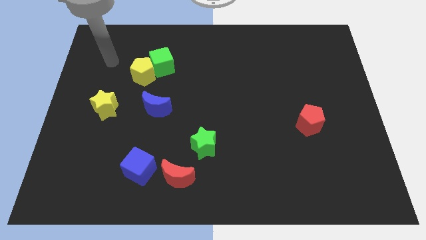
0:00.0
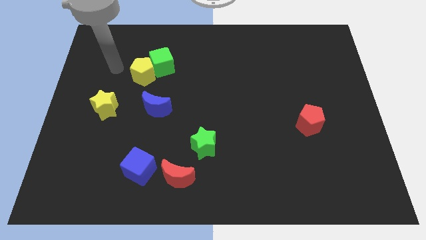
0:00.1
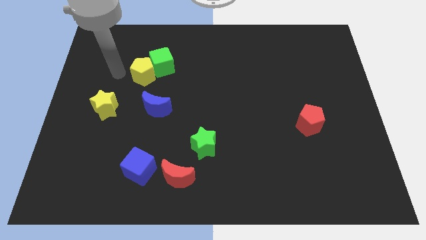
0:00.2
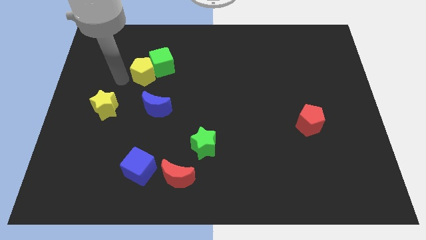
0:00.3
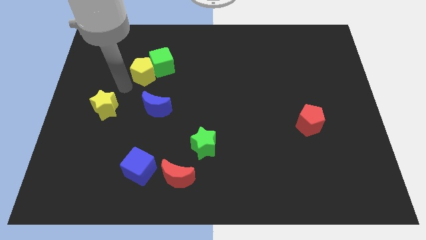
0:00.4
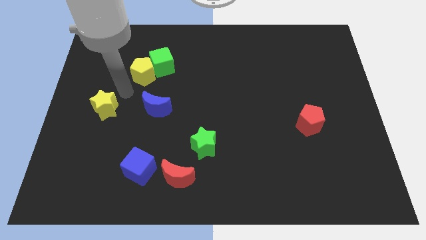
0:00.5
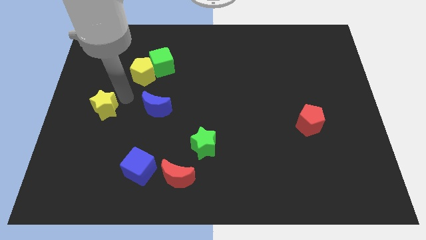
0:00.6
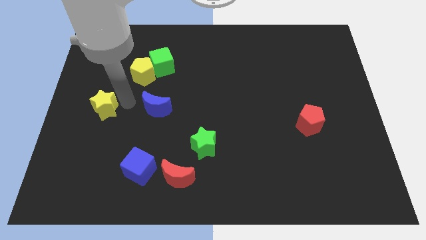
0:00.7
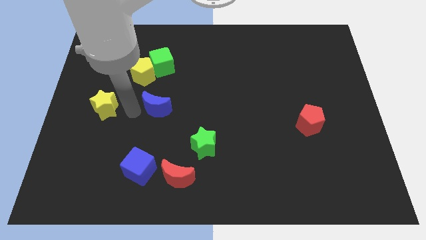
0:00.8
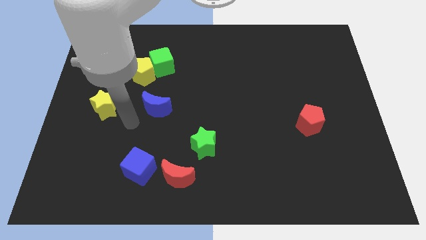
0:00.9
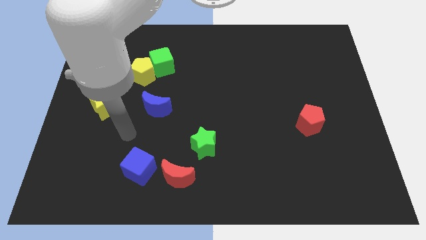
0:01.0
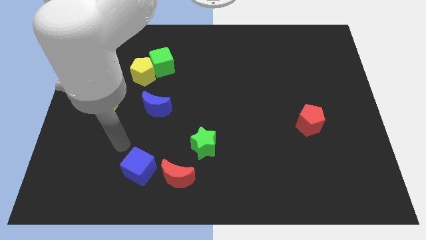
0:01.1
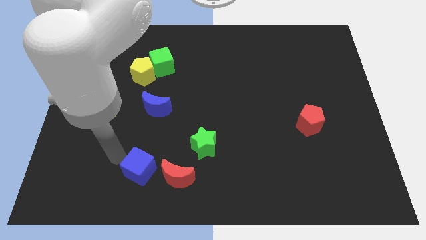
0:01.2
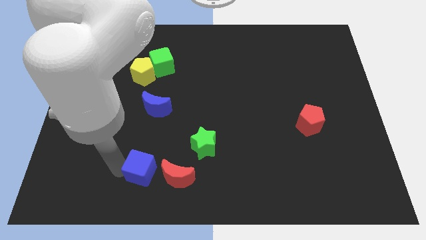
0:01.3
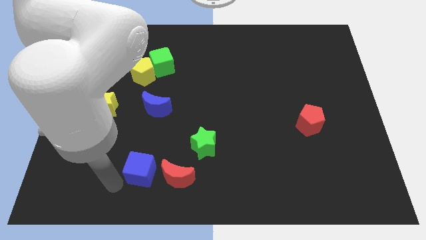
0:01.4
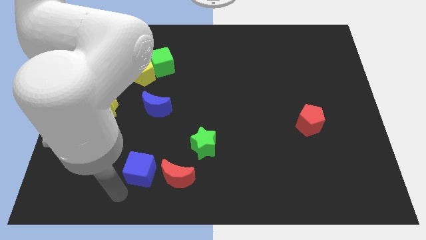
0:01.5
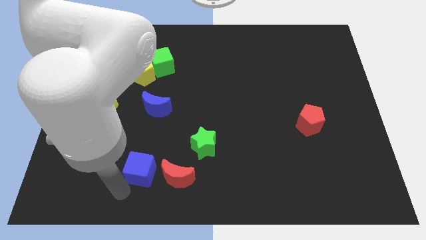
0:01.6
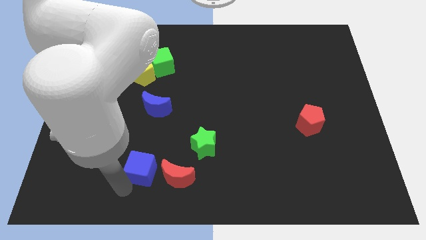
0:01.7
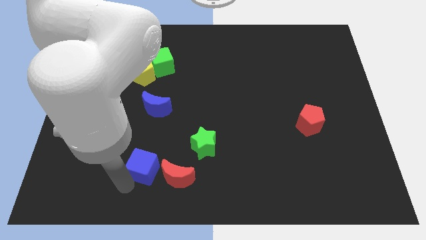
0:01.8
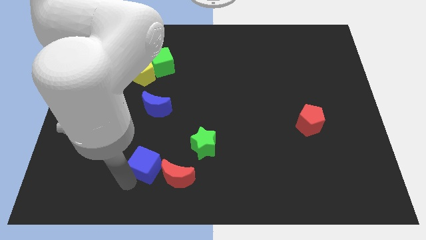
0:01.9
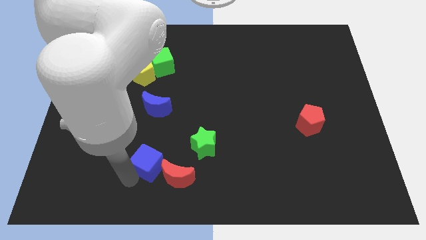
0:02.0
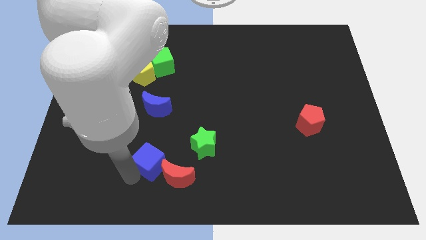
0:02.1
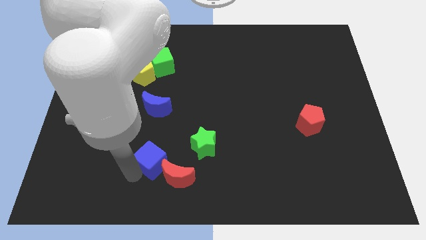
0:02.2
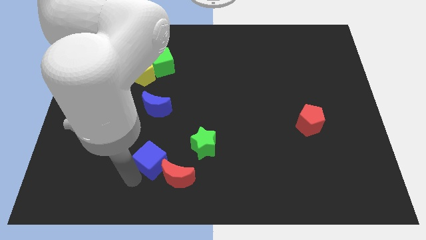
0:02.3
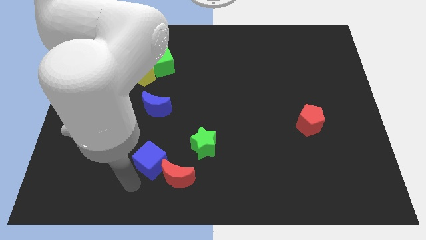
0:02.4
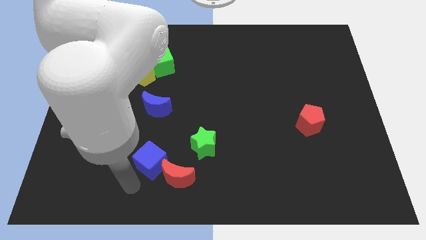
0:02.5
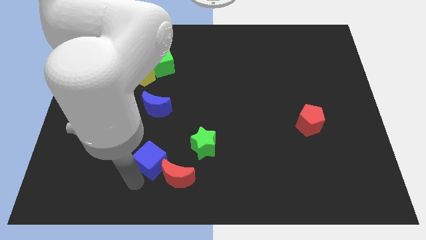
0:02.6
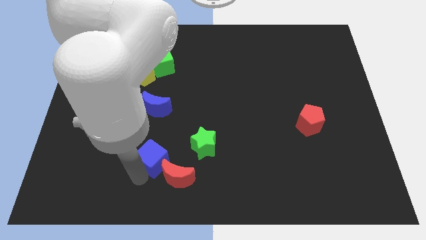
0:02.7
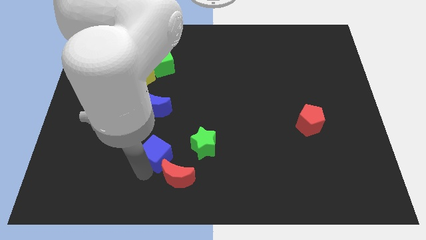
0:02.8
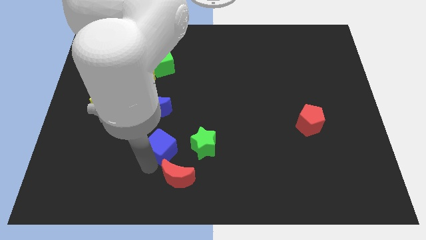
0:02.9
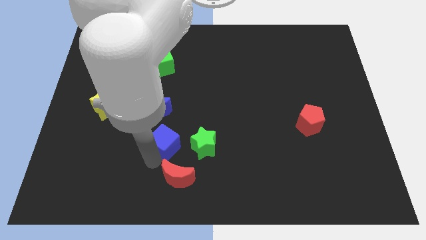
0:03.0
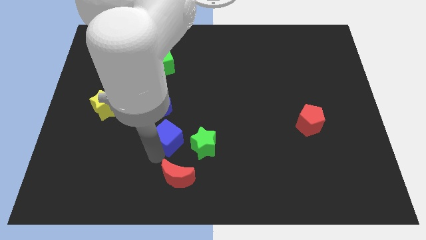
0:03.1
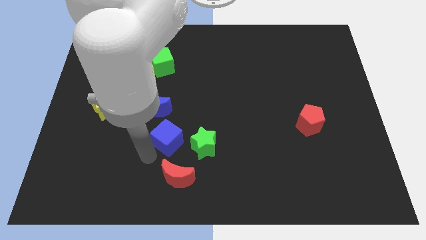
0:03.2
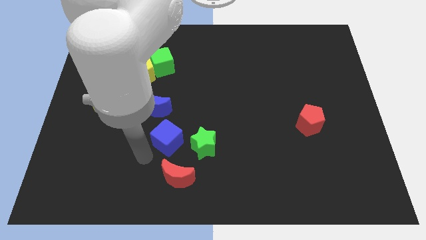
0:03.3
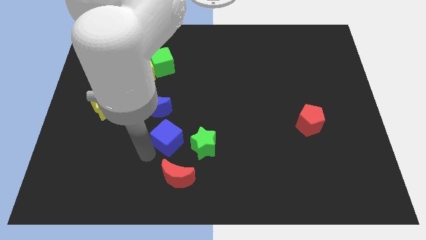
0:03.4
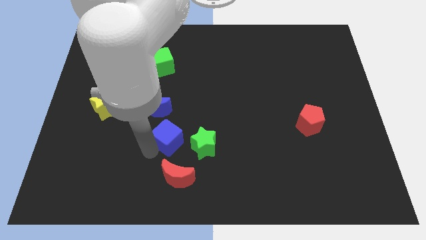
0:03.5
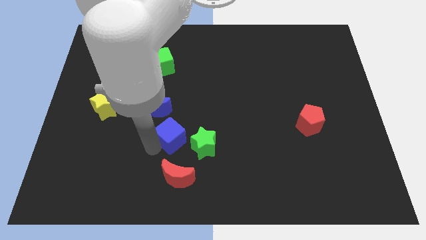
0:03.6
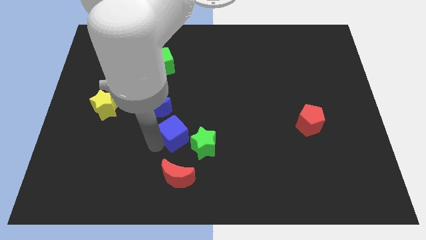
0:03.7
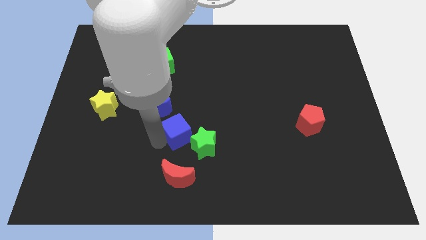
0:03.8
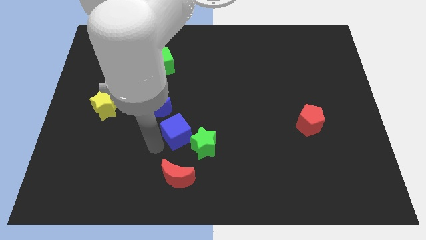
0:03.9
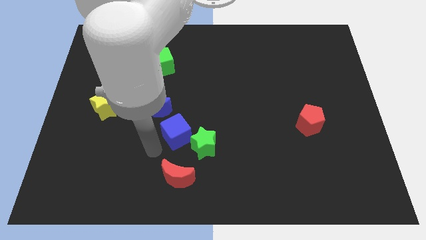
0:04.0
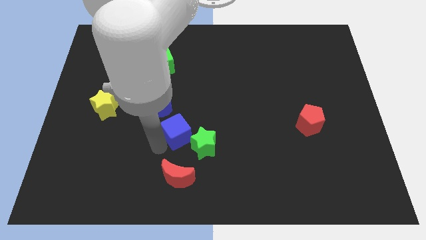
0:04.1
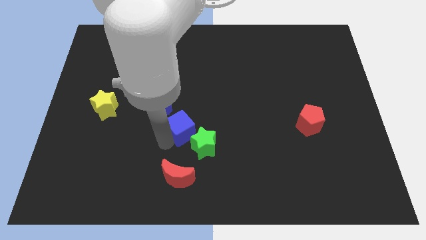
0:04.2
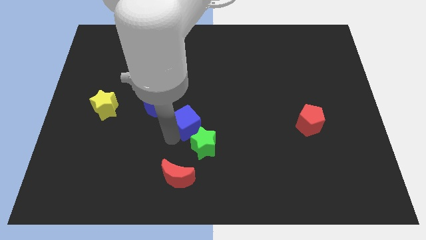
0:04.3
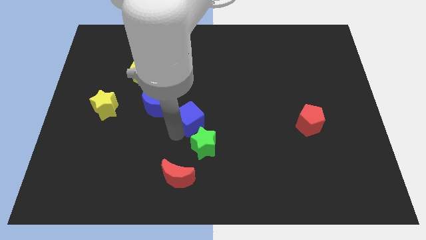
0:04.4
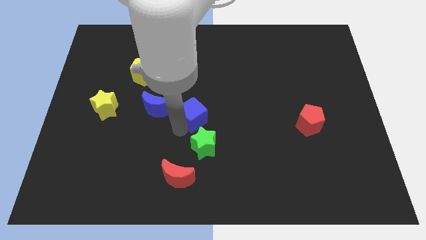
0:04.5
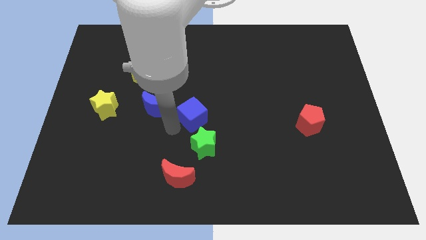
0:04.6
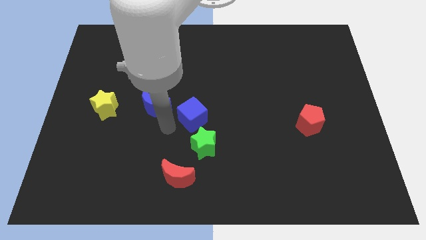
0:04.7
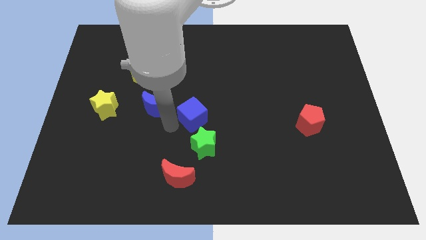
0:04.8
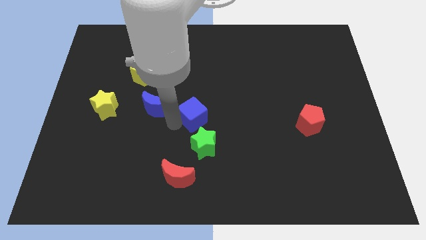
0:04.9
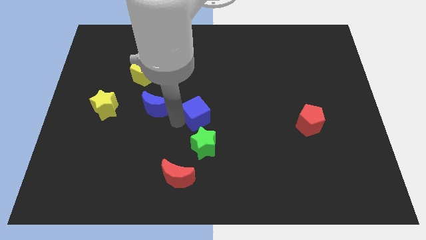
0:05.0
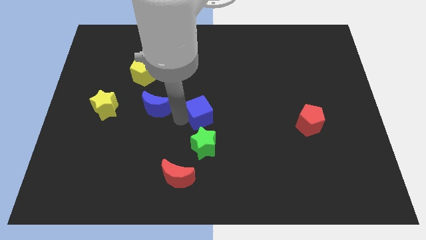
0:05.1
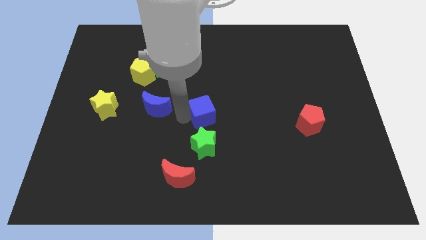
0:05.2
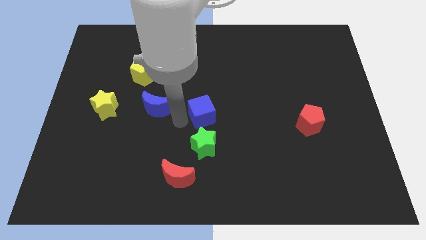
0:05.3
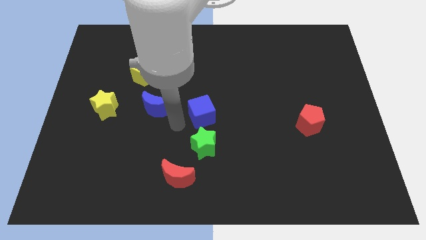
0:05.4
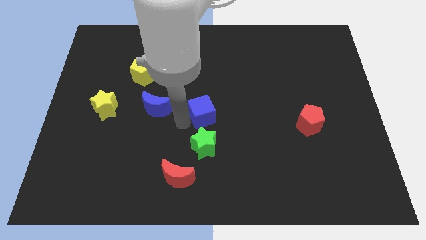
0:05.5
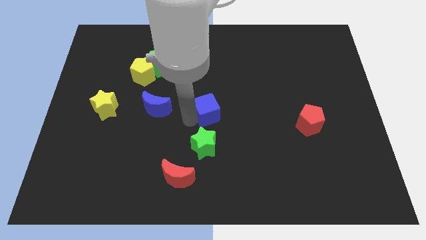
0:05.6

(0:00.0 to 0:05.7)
move the blue cube diagonally upwards and right

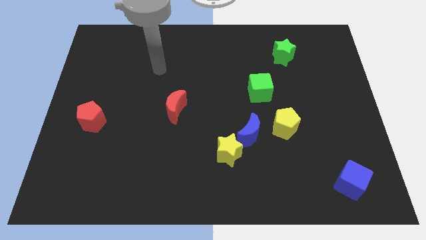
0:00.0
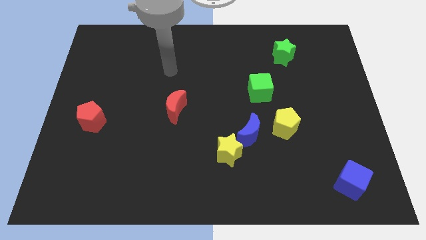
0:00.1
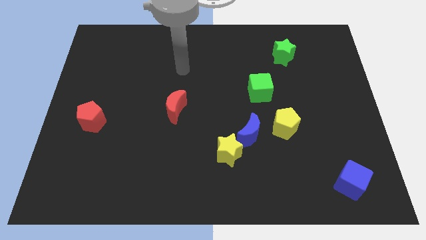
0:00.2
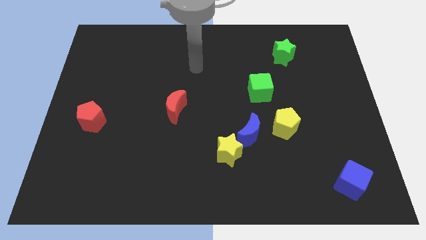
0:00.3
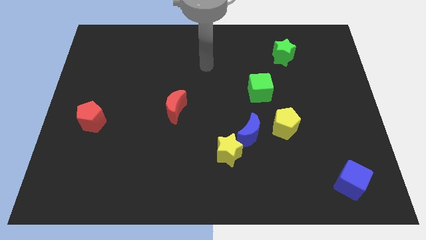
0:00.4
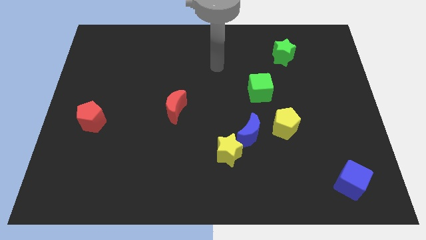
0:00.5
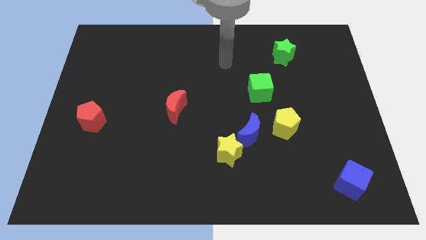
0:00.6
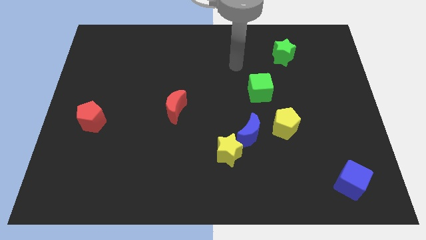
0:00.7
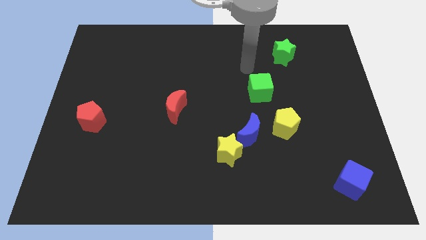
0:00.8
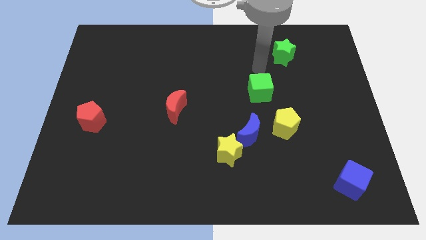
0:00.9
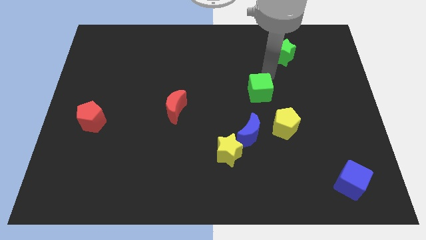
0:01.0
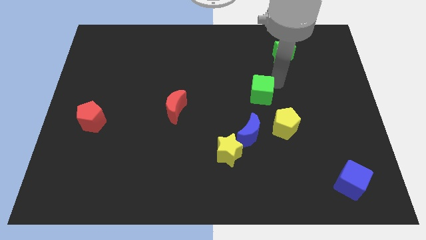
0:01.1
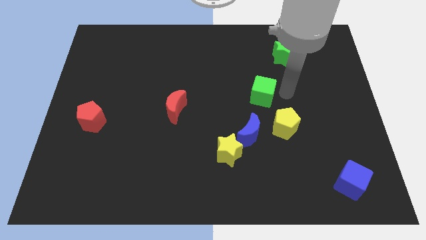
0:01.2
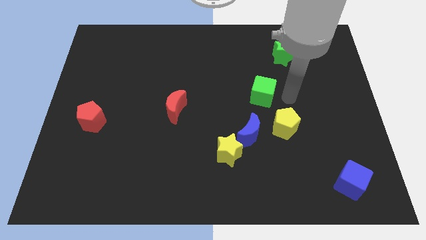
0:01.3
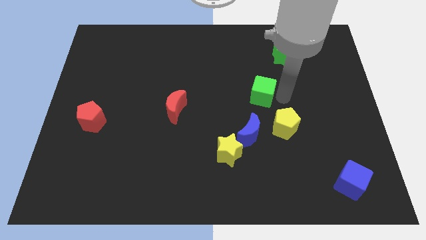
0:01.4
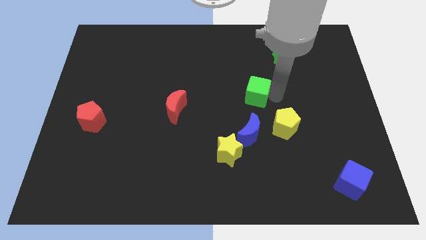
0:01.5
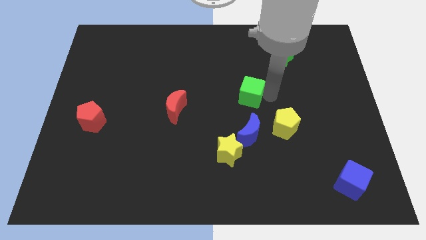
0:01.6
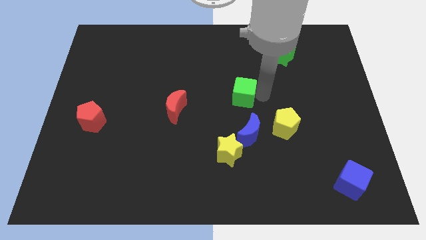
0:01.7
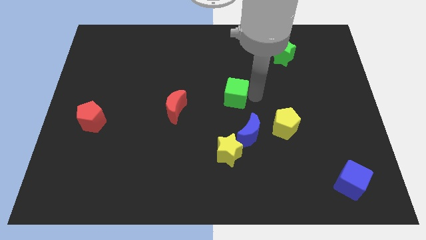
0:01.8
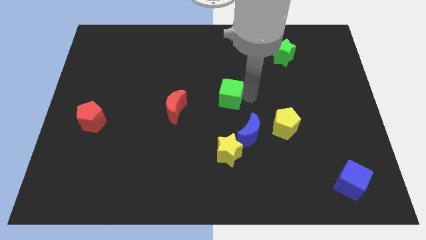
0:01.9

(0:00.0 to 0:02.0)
push the green cube a bit left

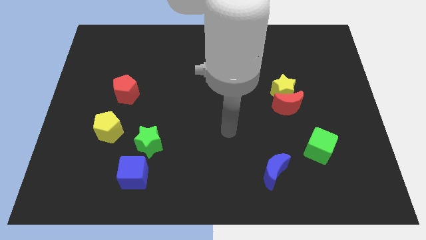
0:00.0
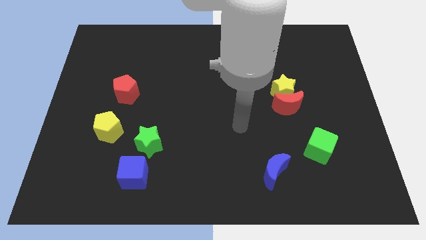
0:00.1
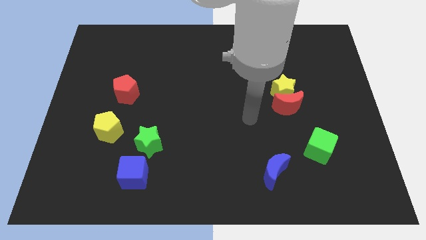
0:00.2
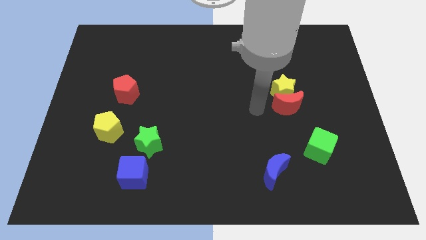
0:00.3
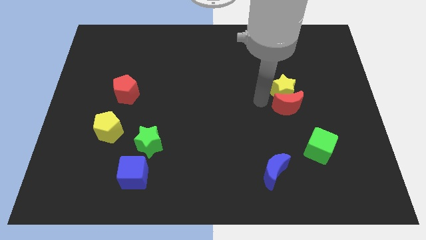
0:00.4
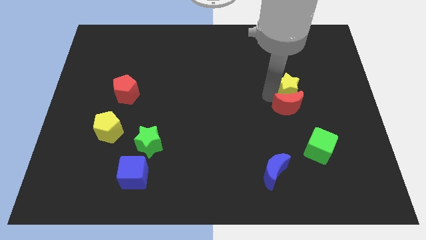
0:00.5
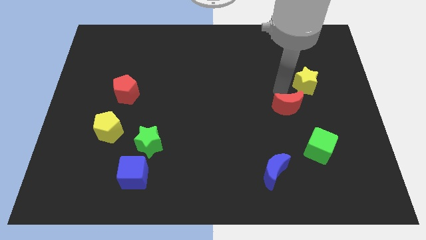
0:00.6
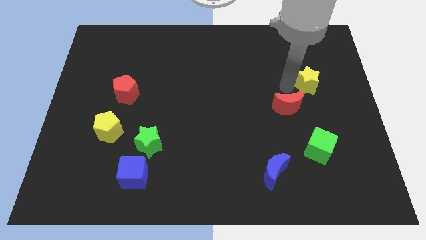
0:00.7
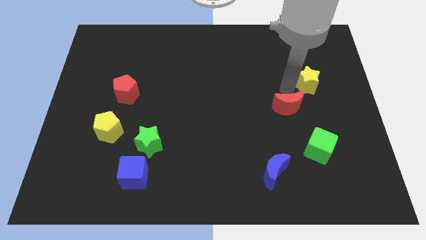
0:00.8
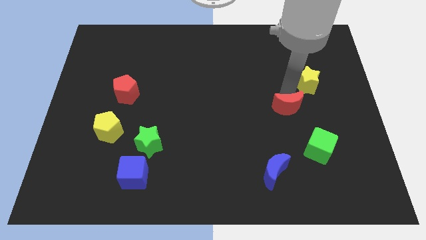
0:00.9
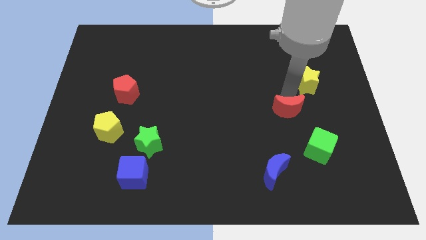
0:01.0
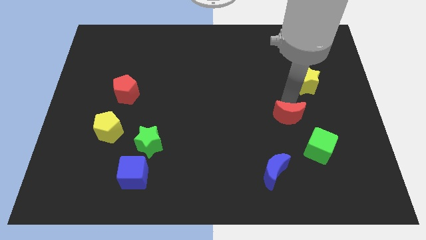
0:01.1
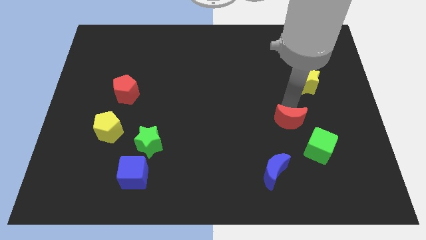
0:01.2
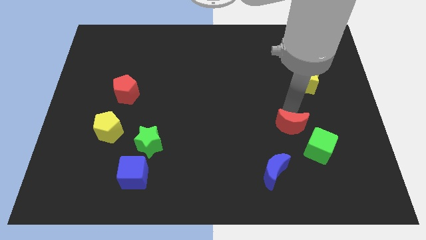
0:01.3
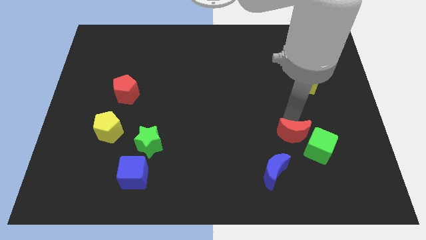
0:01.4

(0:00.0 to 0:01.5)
slightly slide the red moon downwards
